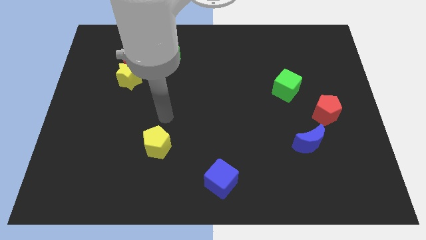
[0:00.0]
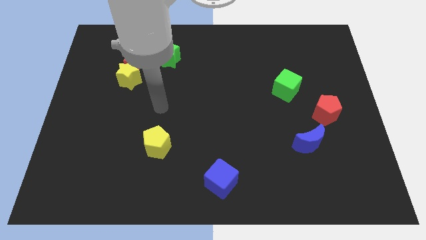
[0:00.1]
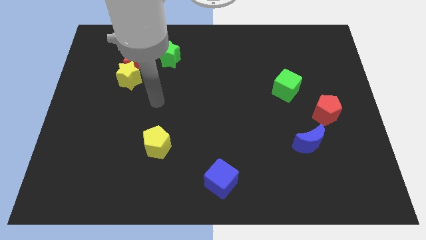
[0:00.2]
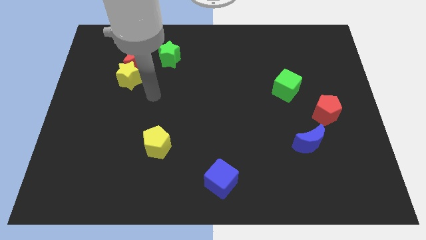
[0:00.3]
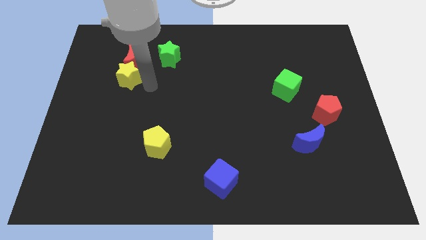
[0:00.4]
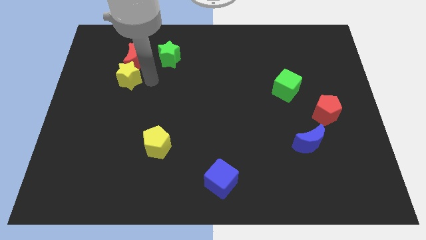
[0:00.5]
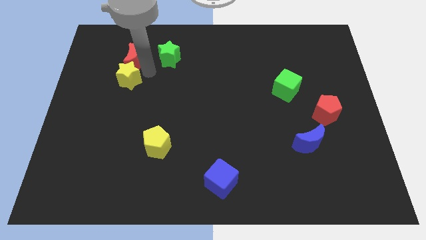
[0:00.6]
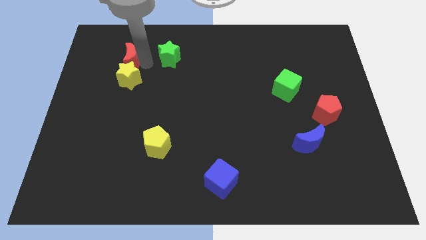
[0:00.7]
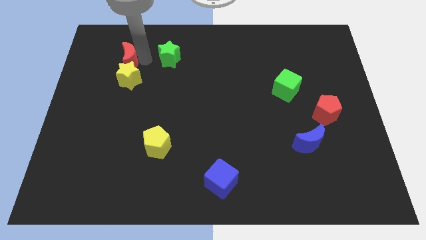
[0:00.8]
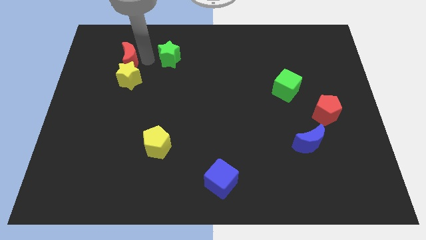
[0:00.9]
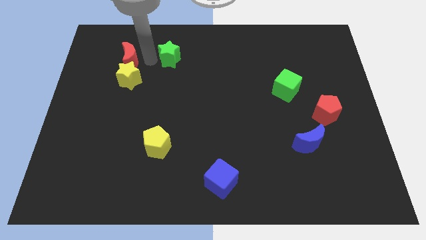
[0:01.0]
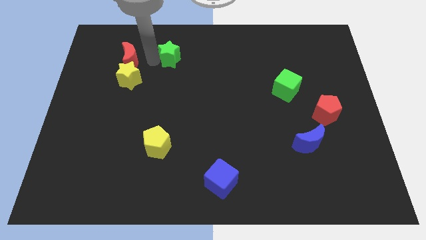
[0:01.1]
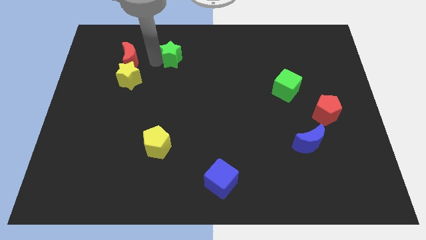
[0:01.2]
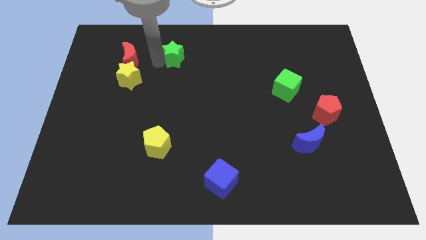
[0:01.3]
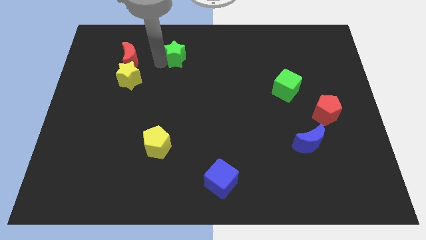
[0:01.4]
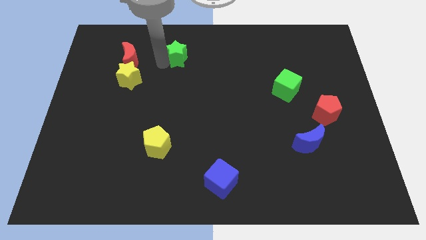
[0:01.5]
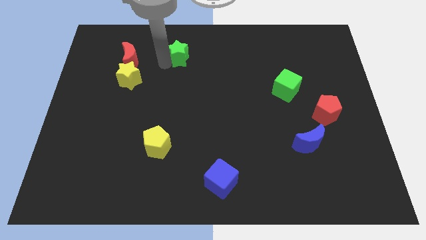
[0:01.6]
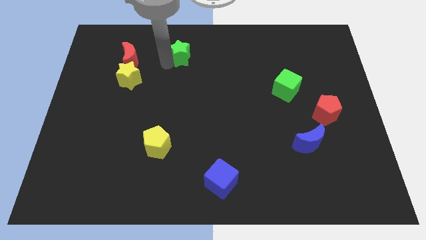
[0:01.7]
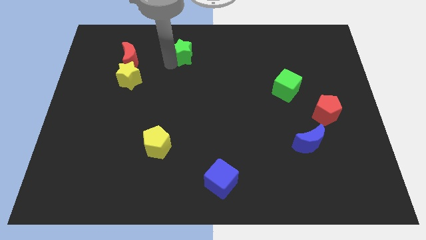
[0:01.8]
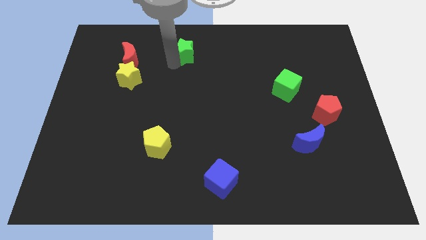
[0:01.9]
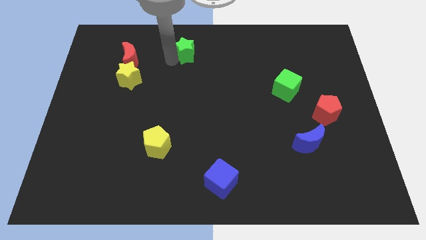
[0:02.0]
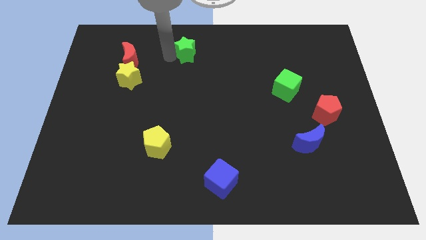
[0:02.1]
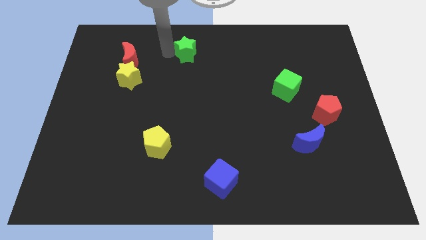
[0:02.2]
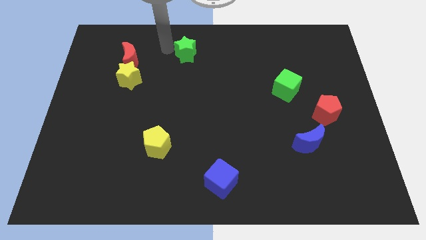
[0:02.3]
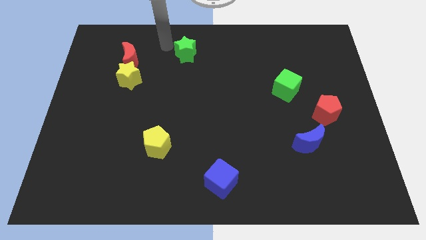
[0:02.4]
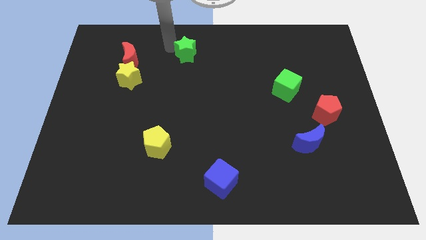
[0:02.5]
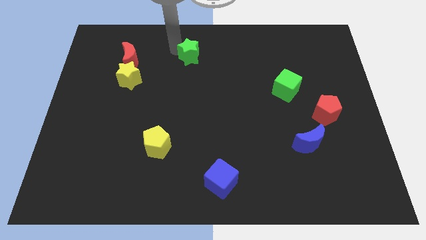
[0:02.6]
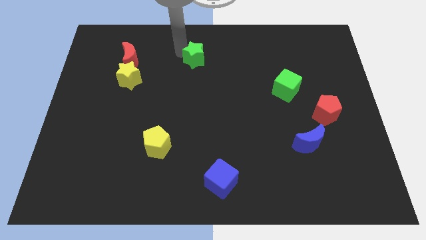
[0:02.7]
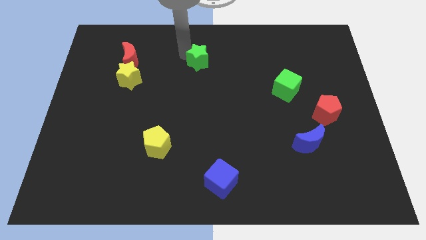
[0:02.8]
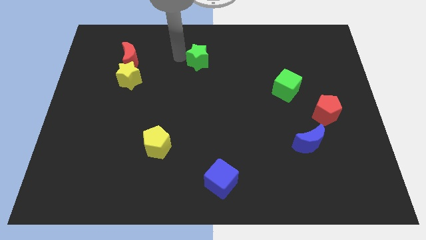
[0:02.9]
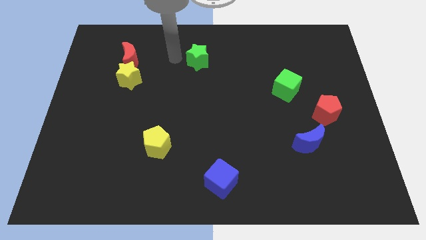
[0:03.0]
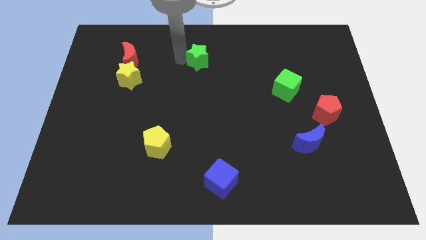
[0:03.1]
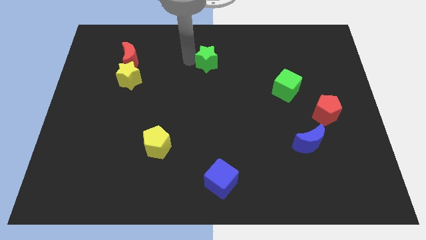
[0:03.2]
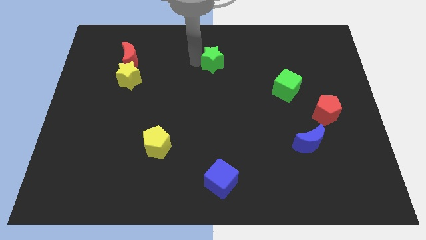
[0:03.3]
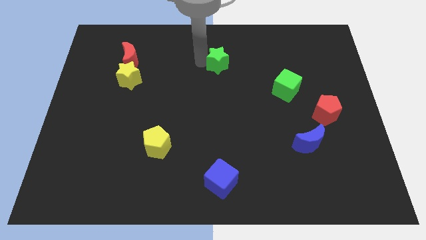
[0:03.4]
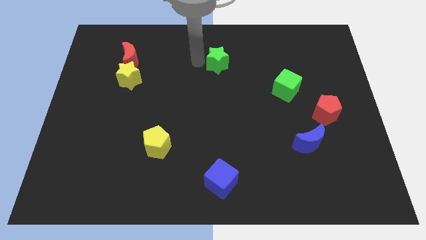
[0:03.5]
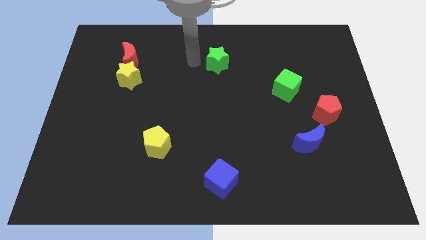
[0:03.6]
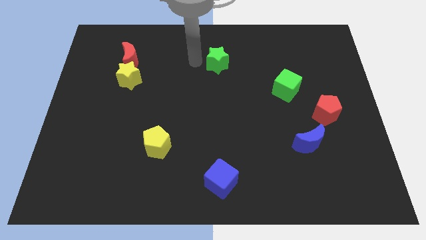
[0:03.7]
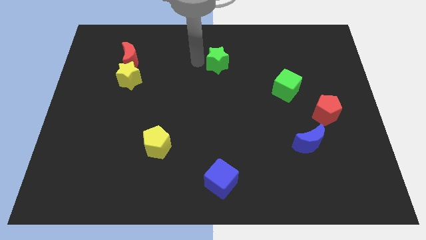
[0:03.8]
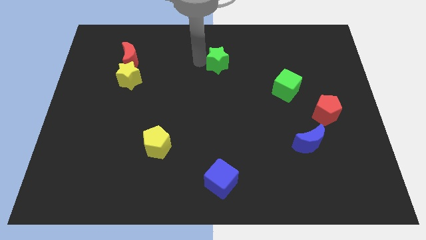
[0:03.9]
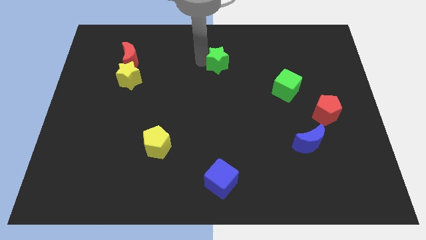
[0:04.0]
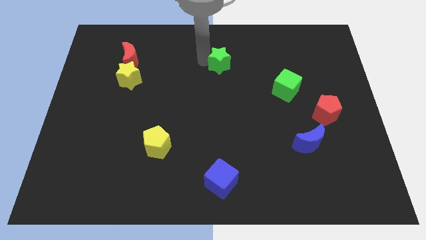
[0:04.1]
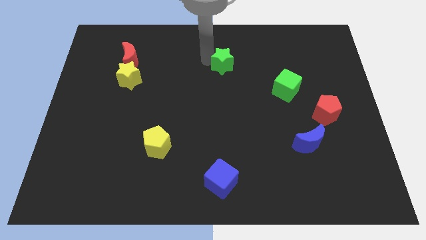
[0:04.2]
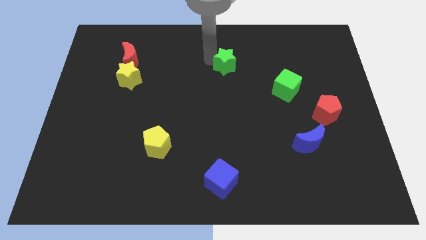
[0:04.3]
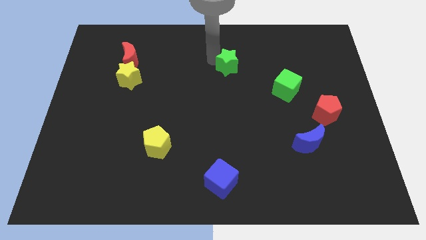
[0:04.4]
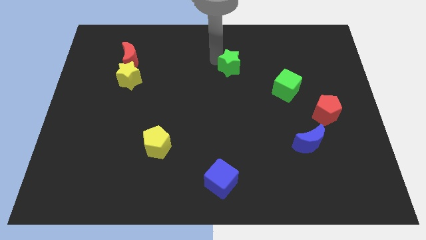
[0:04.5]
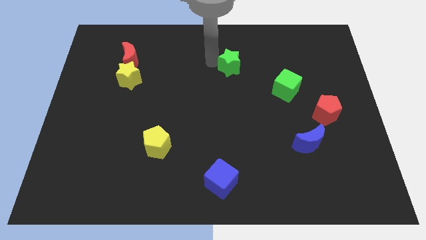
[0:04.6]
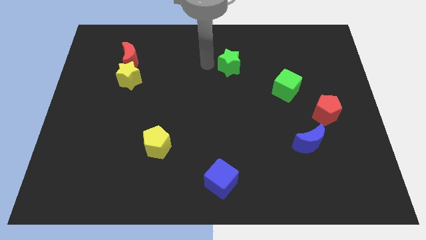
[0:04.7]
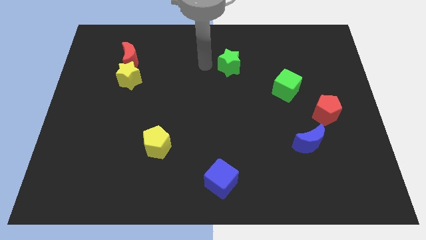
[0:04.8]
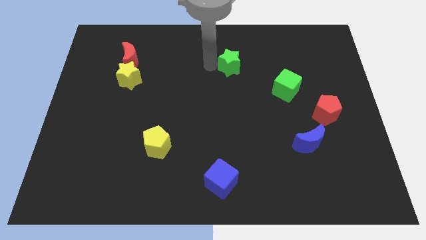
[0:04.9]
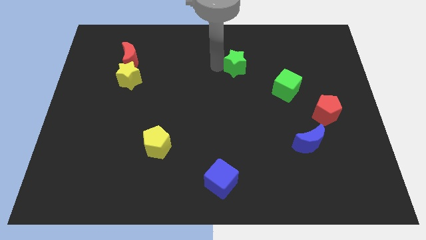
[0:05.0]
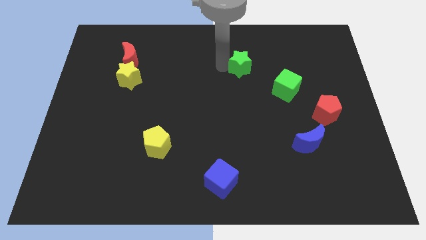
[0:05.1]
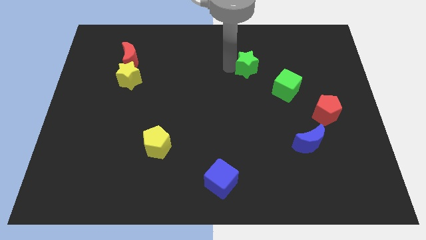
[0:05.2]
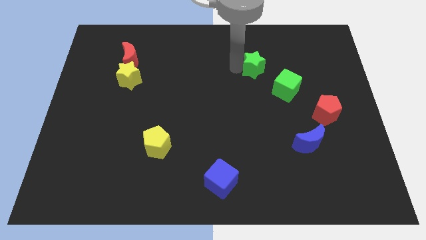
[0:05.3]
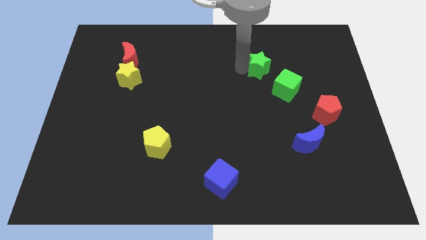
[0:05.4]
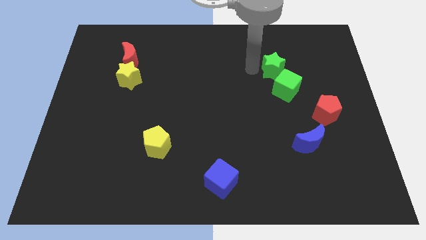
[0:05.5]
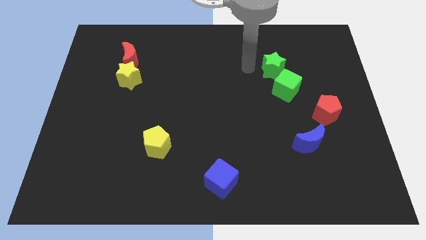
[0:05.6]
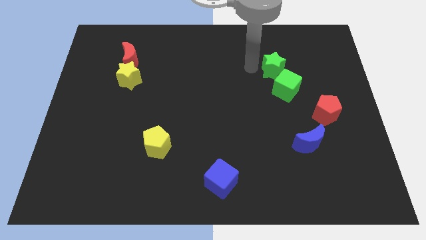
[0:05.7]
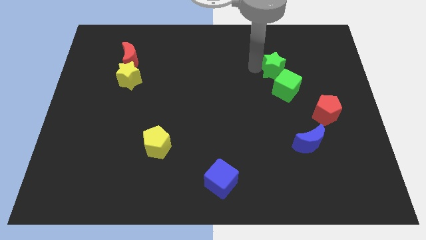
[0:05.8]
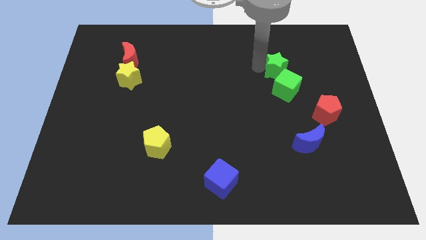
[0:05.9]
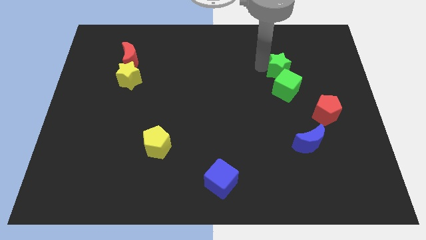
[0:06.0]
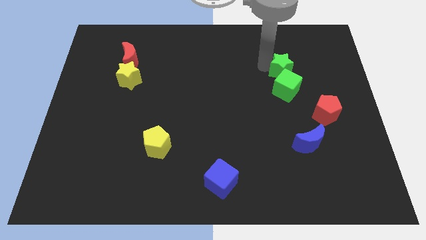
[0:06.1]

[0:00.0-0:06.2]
slide the green star to the top right of the green cube

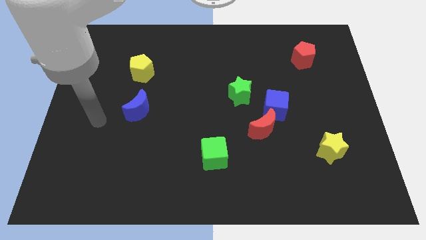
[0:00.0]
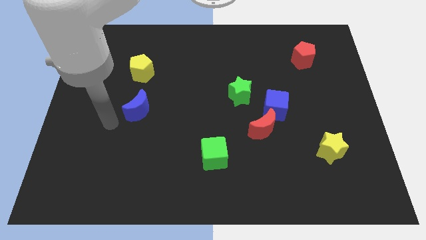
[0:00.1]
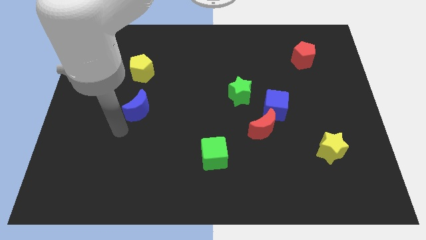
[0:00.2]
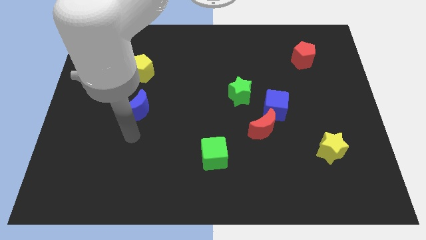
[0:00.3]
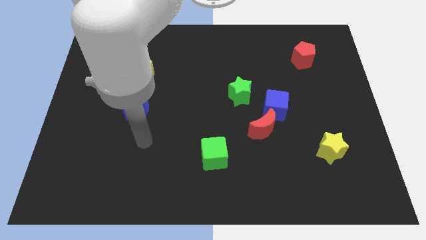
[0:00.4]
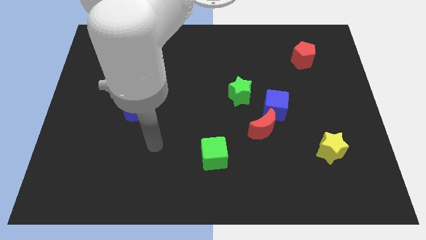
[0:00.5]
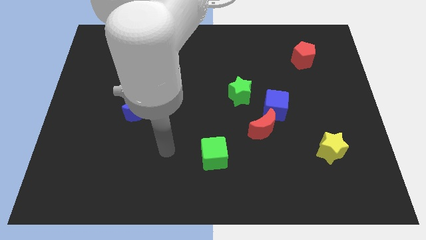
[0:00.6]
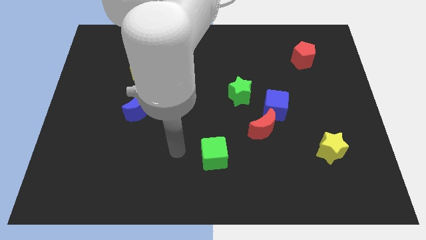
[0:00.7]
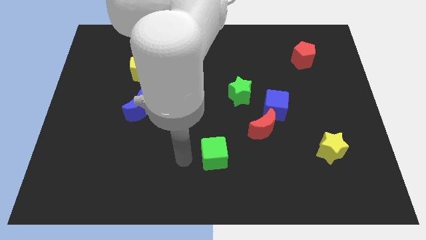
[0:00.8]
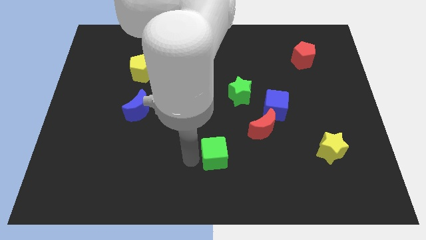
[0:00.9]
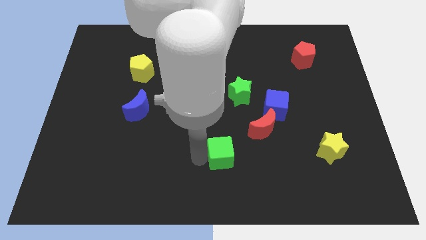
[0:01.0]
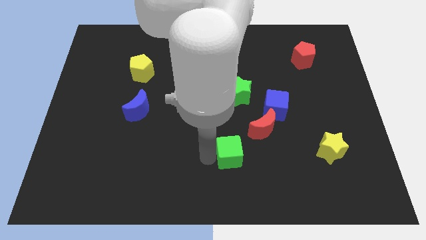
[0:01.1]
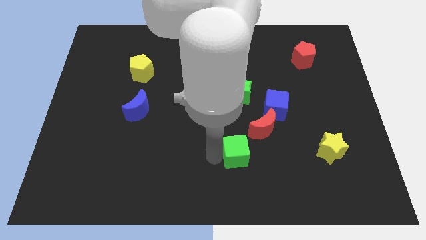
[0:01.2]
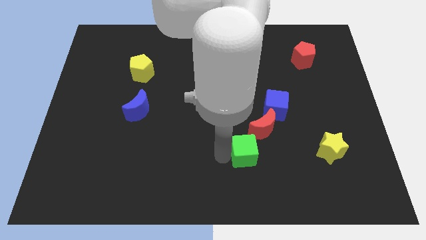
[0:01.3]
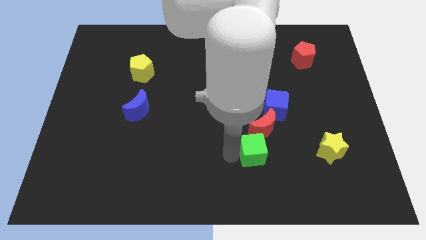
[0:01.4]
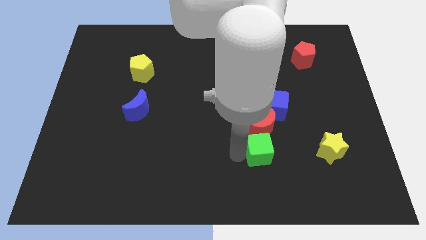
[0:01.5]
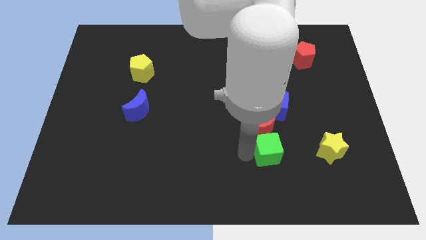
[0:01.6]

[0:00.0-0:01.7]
put the green cube diagonally down and to the right of the red moon
